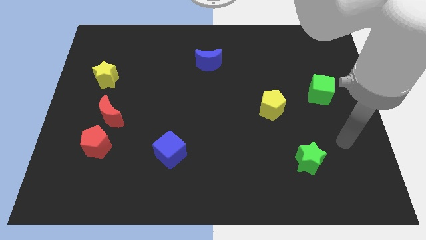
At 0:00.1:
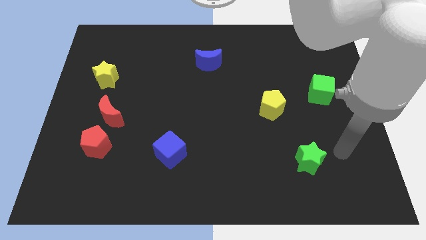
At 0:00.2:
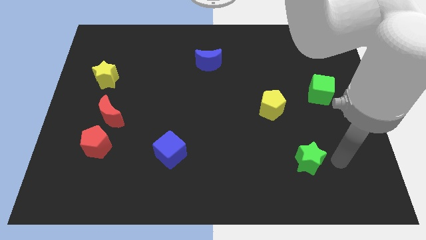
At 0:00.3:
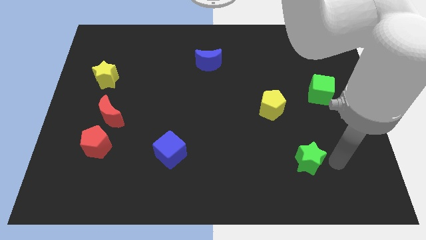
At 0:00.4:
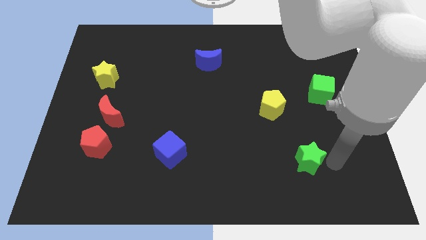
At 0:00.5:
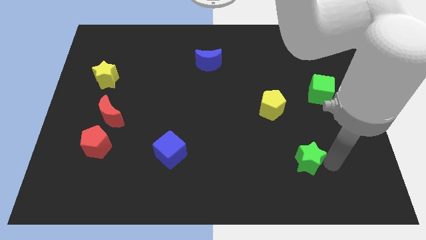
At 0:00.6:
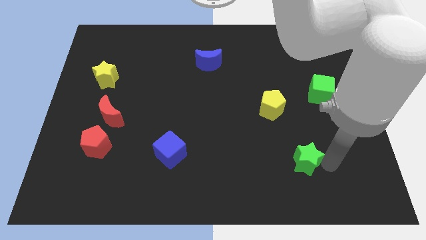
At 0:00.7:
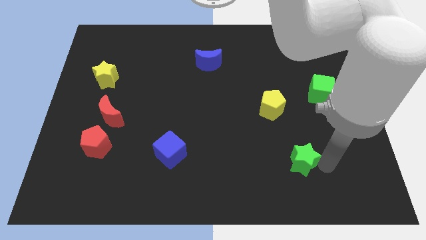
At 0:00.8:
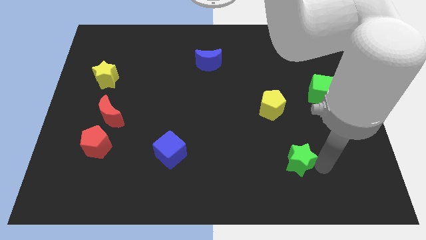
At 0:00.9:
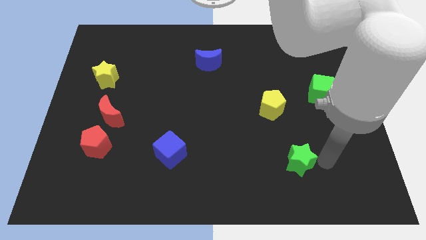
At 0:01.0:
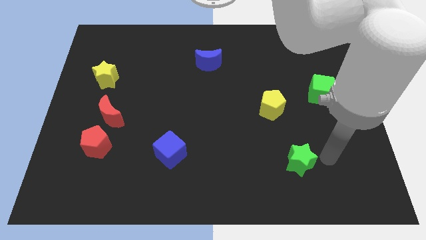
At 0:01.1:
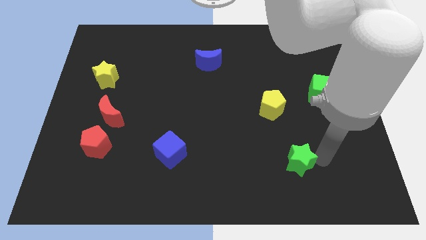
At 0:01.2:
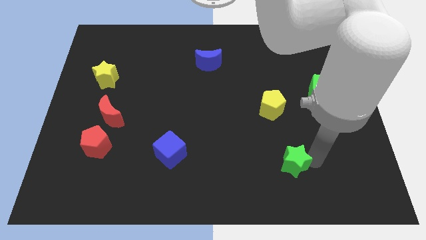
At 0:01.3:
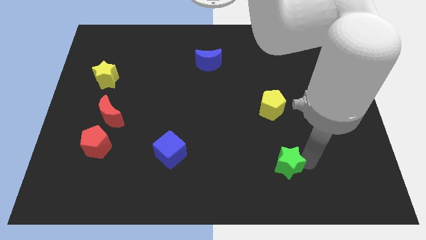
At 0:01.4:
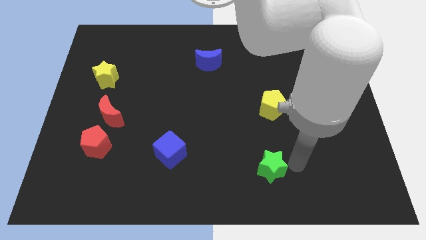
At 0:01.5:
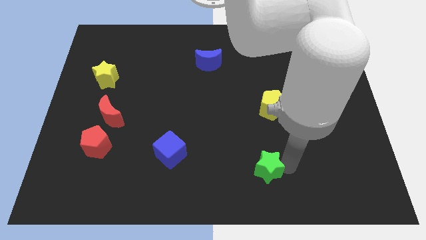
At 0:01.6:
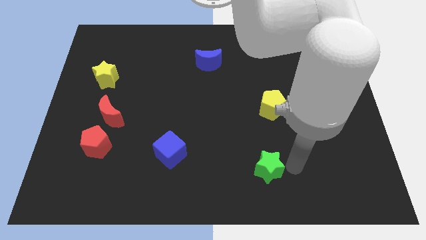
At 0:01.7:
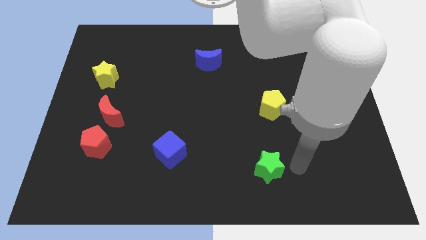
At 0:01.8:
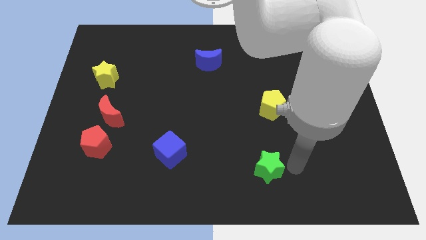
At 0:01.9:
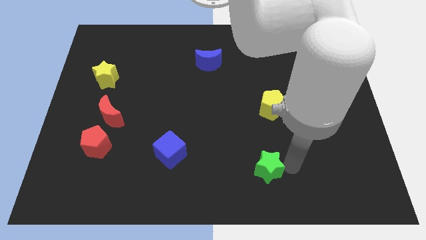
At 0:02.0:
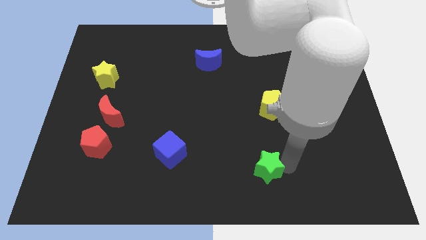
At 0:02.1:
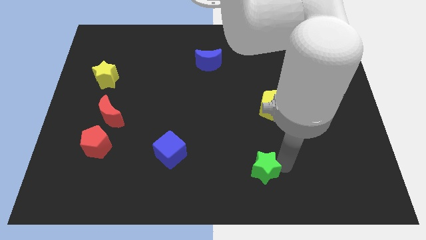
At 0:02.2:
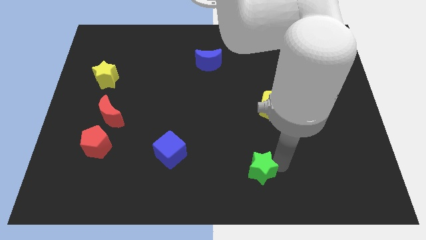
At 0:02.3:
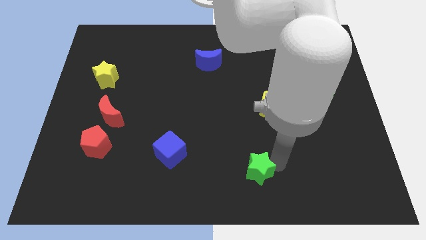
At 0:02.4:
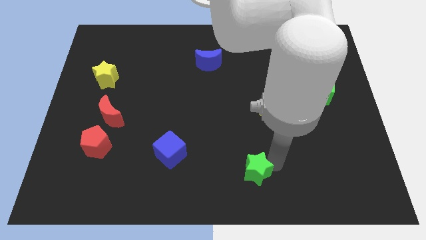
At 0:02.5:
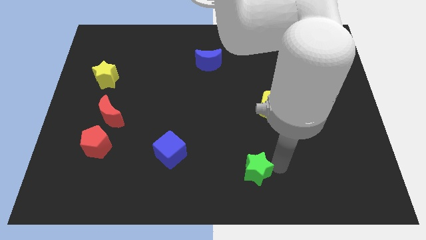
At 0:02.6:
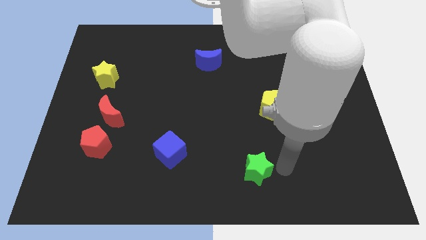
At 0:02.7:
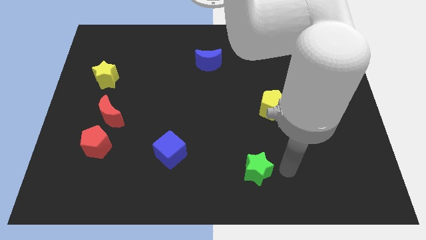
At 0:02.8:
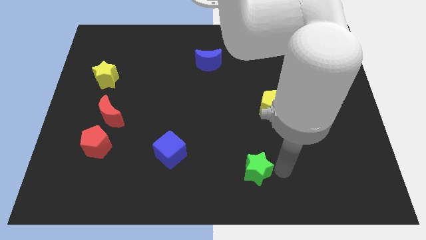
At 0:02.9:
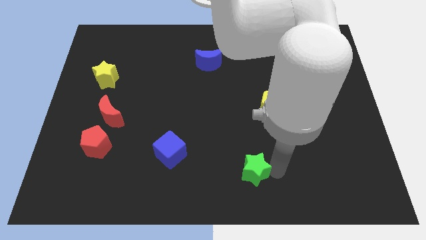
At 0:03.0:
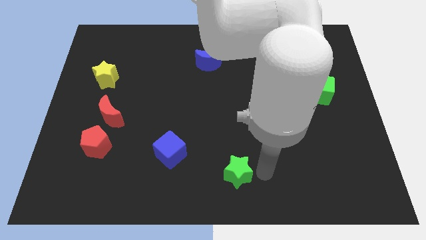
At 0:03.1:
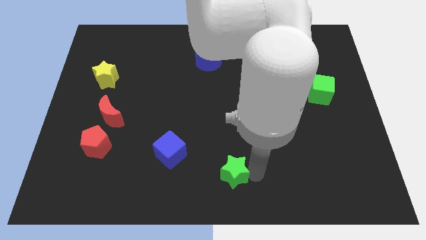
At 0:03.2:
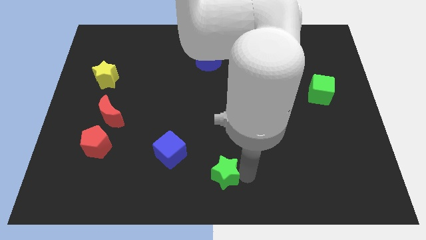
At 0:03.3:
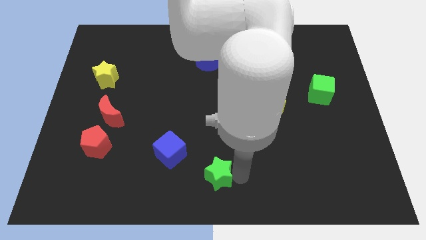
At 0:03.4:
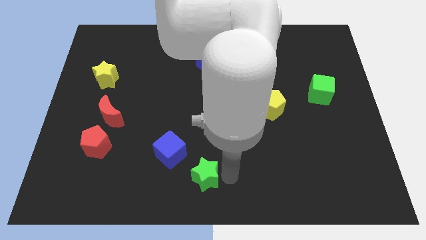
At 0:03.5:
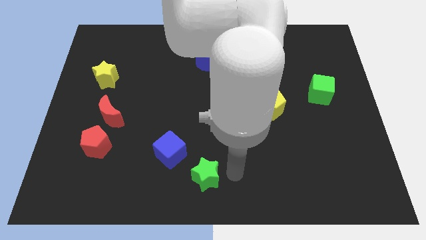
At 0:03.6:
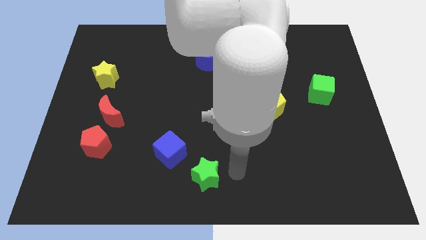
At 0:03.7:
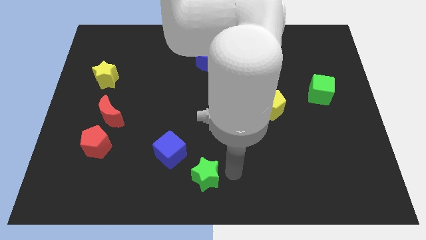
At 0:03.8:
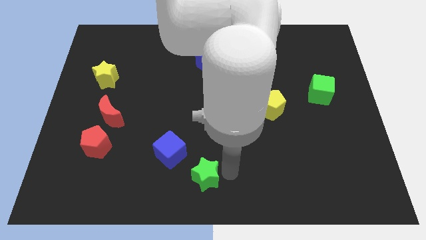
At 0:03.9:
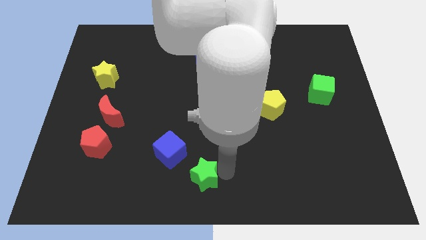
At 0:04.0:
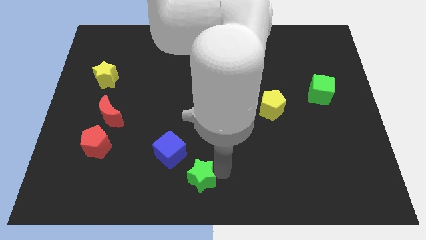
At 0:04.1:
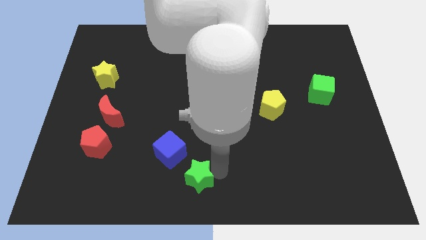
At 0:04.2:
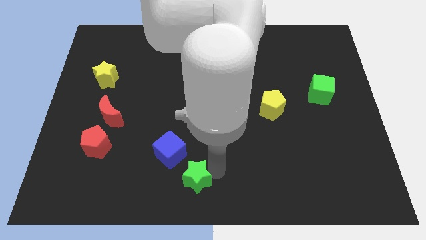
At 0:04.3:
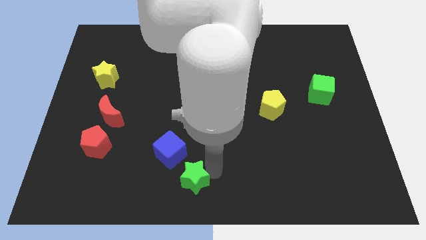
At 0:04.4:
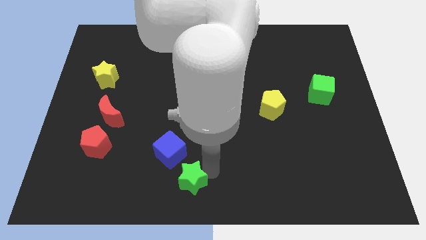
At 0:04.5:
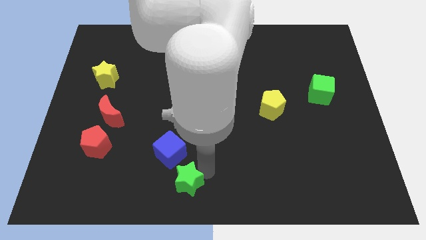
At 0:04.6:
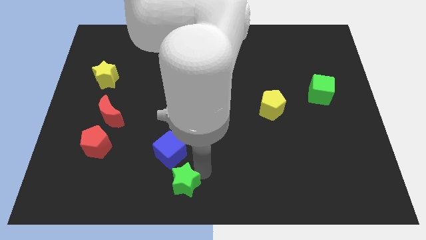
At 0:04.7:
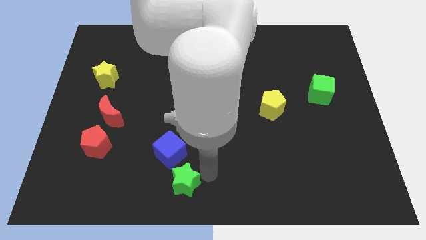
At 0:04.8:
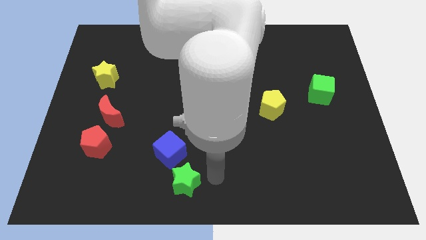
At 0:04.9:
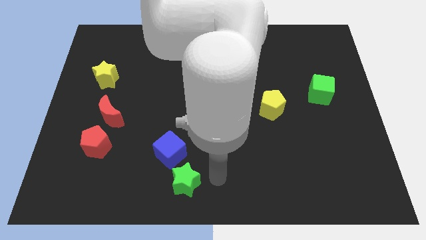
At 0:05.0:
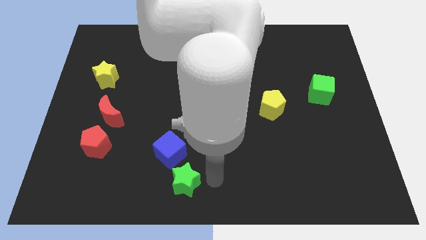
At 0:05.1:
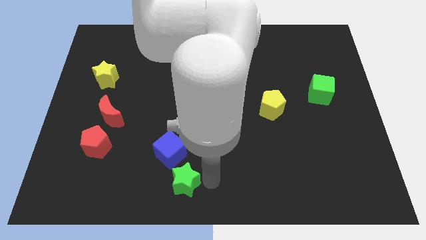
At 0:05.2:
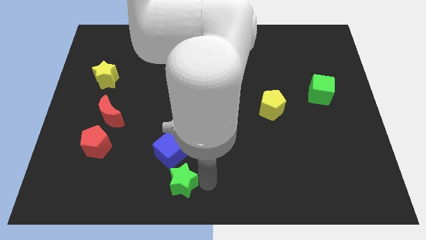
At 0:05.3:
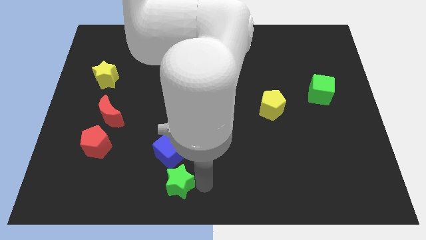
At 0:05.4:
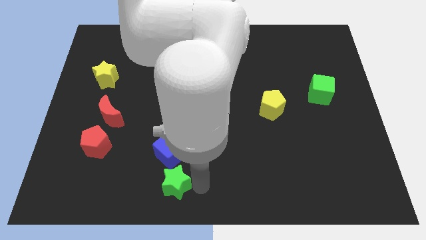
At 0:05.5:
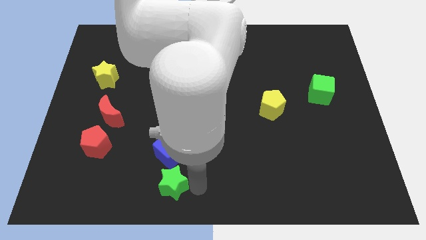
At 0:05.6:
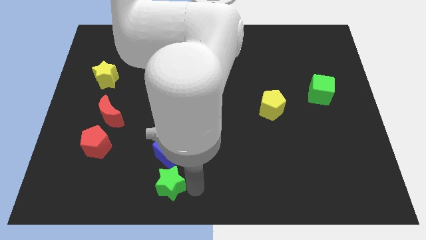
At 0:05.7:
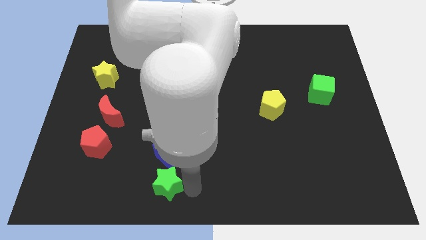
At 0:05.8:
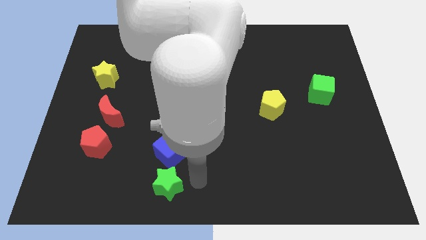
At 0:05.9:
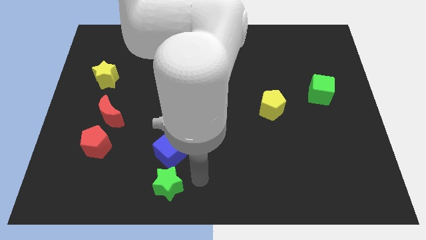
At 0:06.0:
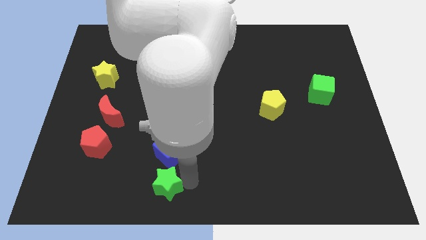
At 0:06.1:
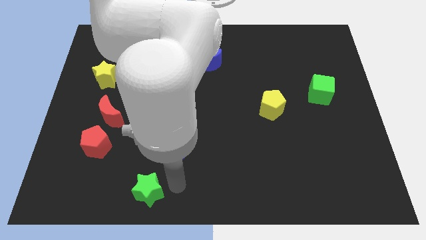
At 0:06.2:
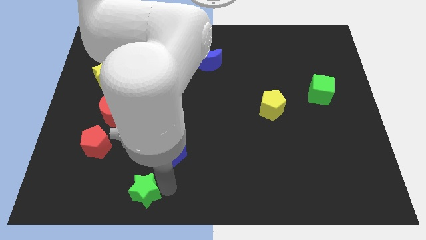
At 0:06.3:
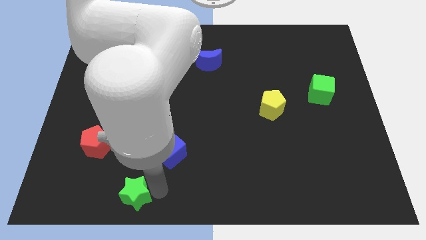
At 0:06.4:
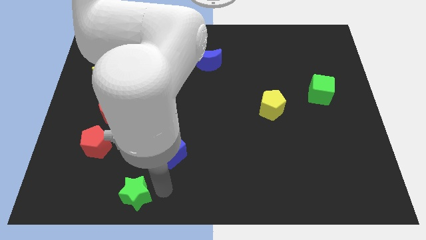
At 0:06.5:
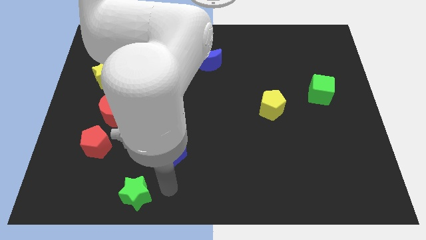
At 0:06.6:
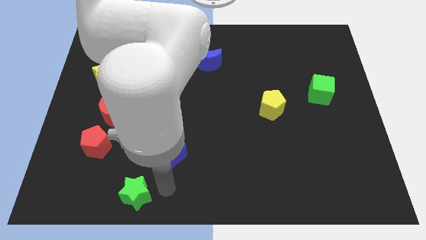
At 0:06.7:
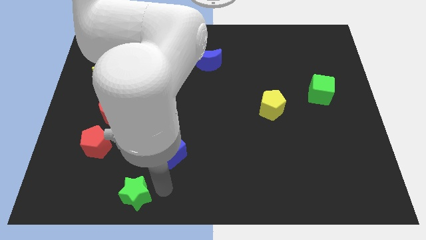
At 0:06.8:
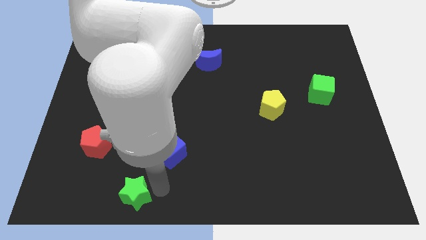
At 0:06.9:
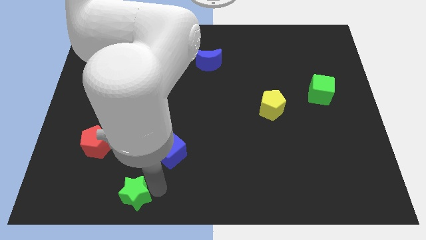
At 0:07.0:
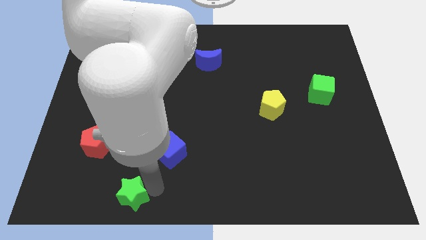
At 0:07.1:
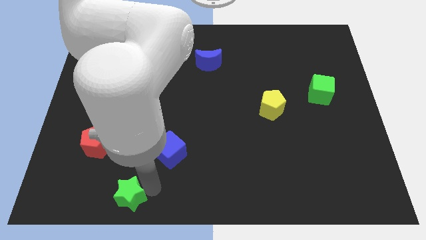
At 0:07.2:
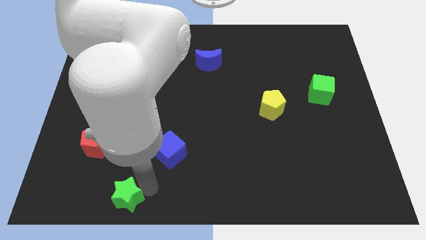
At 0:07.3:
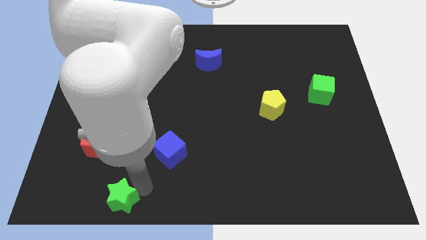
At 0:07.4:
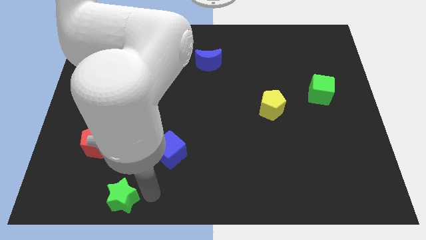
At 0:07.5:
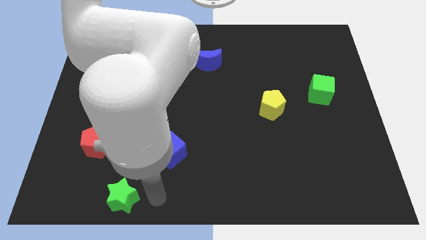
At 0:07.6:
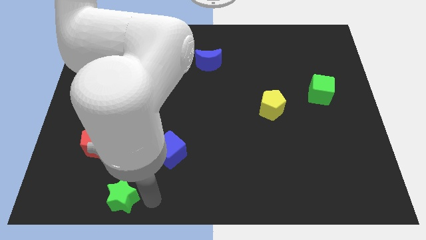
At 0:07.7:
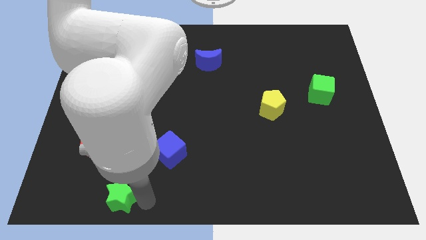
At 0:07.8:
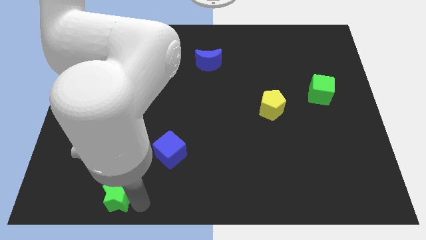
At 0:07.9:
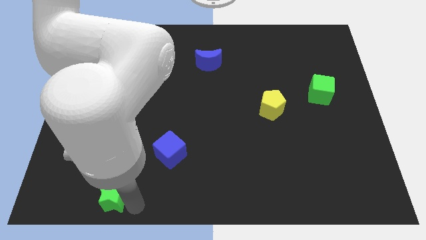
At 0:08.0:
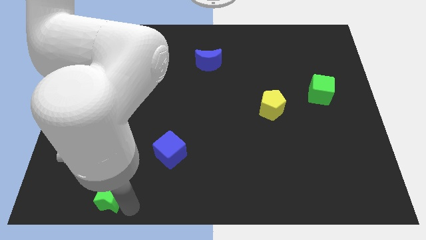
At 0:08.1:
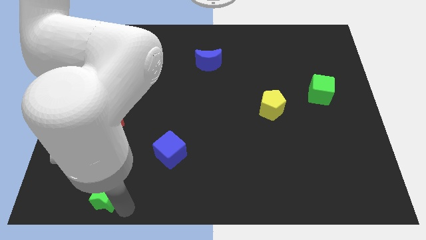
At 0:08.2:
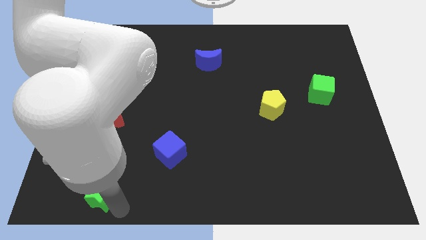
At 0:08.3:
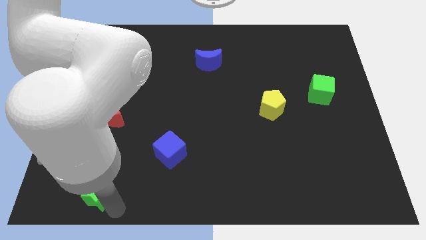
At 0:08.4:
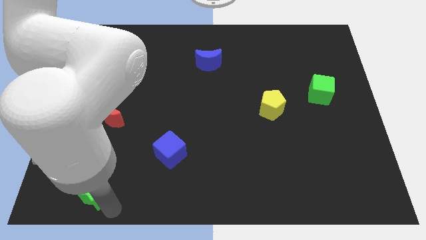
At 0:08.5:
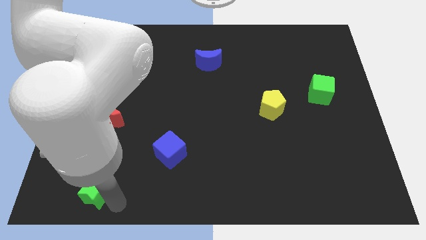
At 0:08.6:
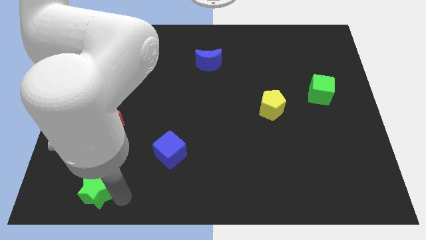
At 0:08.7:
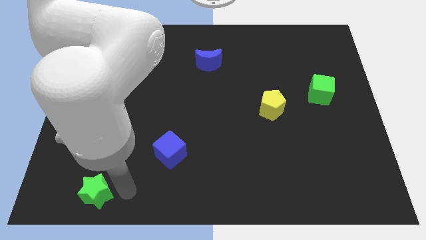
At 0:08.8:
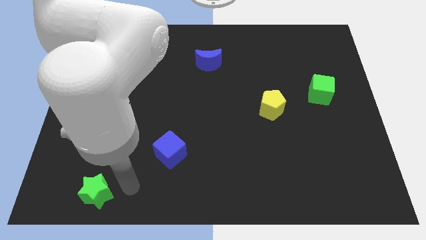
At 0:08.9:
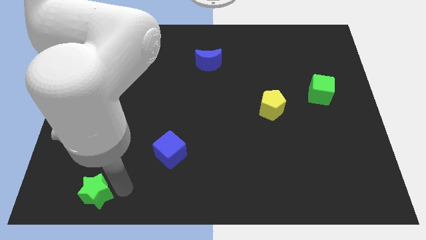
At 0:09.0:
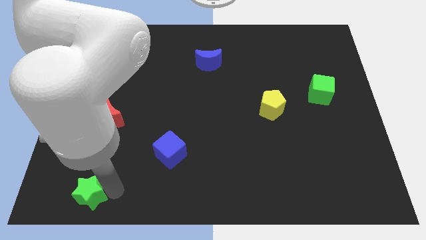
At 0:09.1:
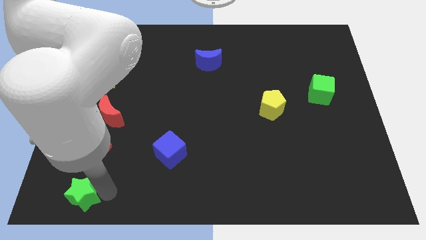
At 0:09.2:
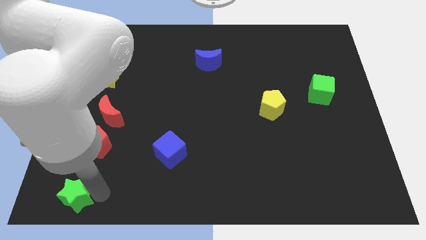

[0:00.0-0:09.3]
push the green star to the lower left corner
